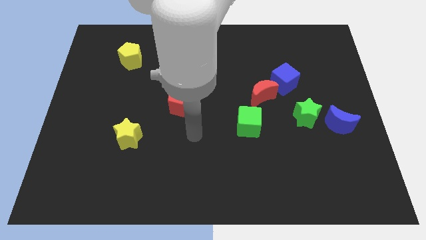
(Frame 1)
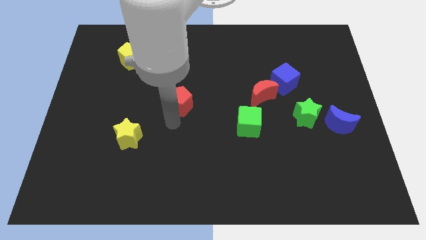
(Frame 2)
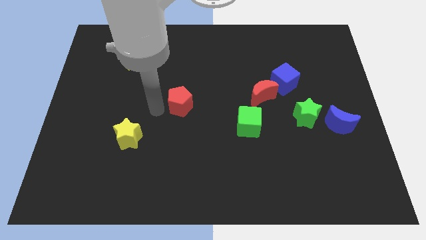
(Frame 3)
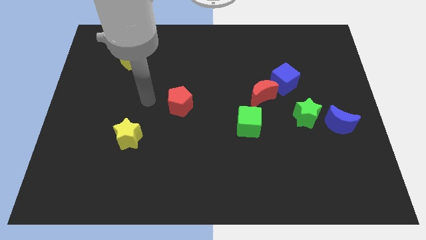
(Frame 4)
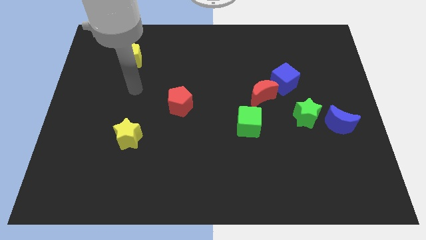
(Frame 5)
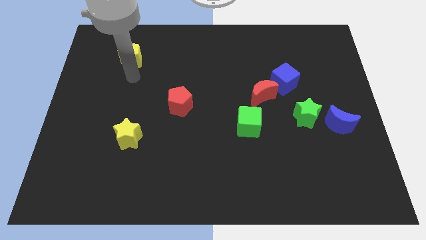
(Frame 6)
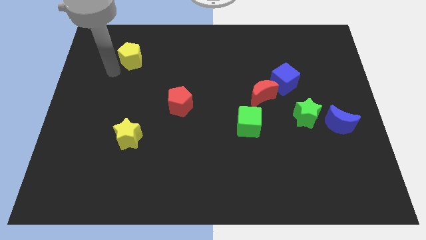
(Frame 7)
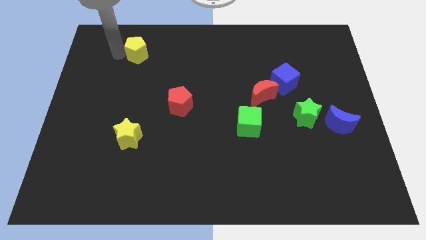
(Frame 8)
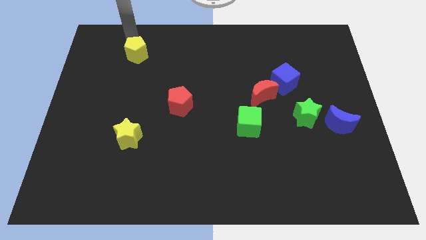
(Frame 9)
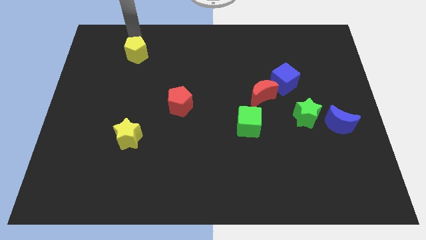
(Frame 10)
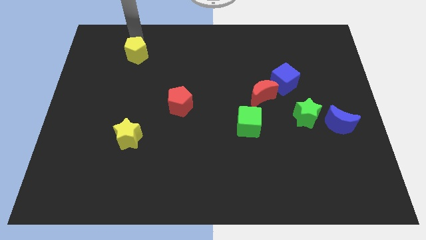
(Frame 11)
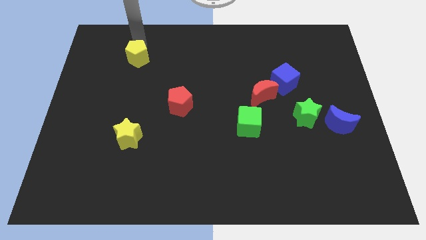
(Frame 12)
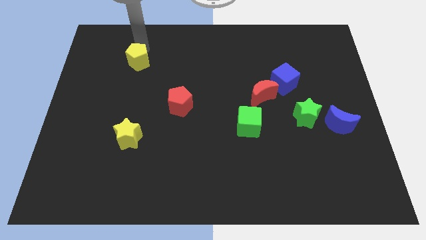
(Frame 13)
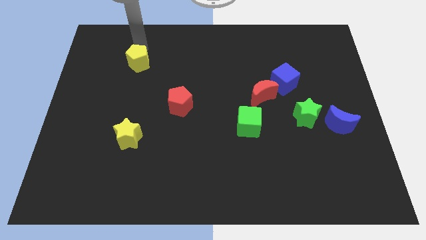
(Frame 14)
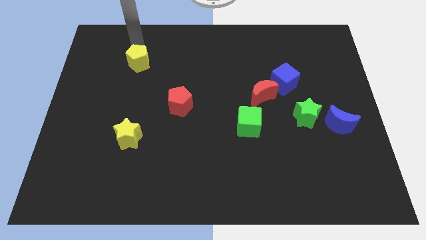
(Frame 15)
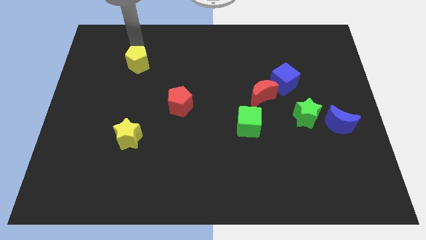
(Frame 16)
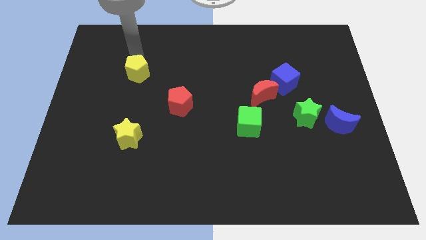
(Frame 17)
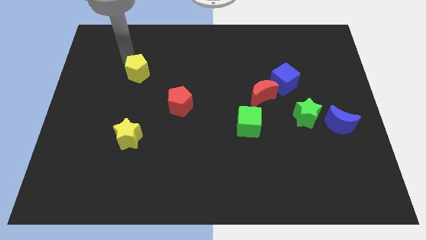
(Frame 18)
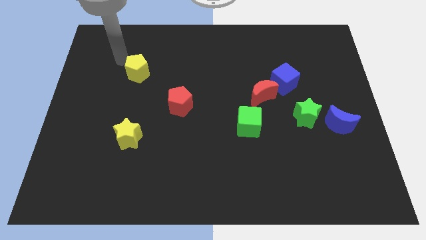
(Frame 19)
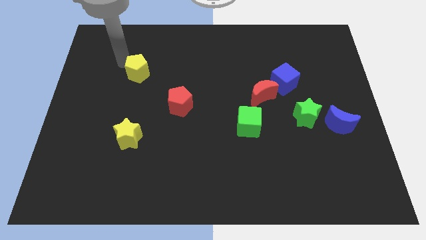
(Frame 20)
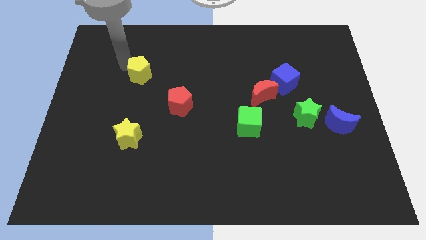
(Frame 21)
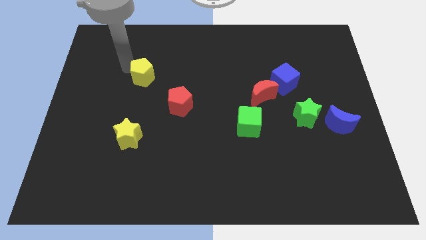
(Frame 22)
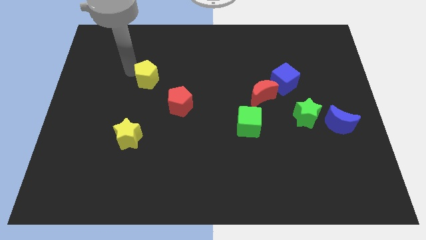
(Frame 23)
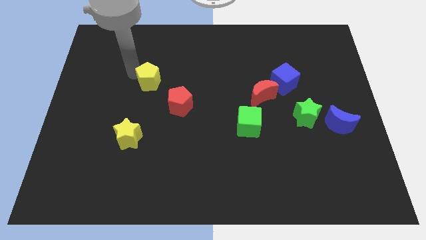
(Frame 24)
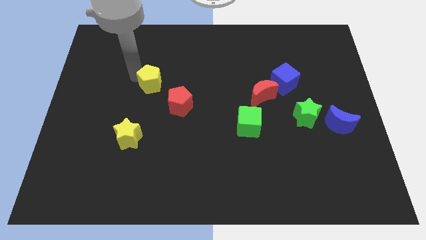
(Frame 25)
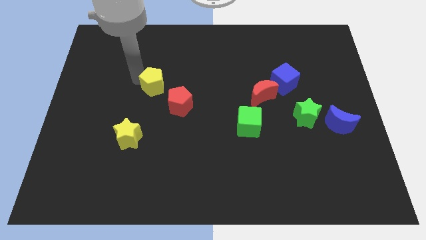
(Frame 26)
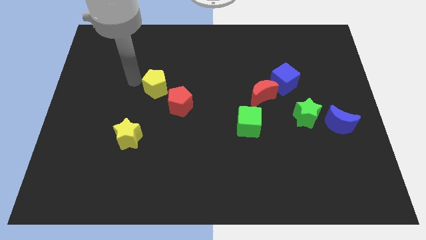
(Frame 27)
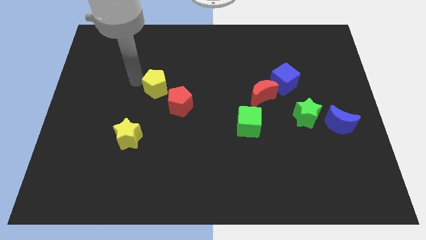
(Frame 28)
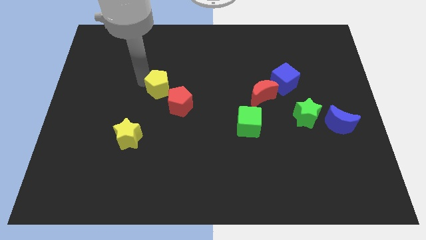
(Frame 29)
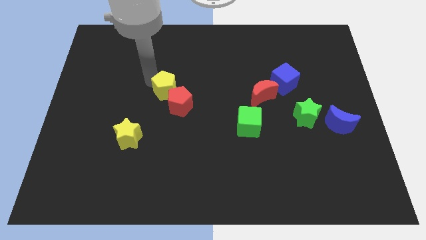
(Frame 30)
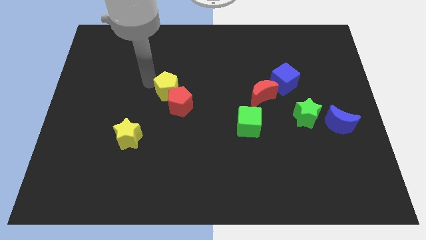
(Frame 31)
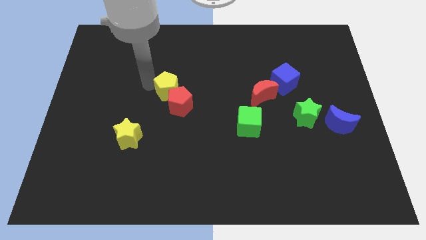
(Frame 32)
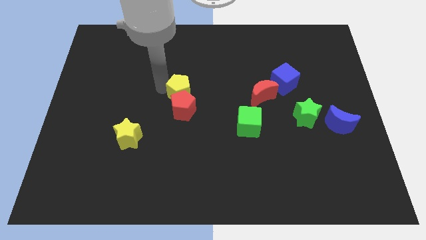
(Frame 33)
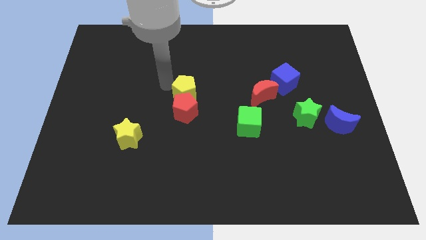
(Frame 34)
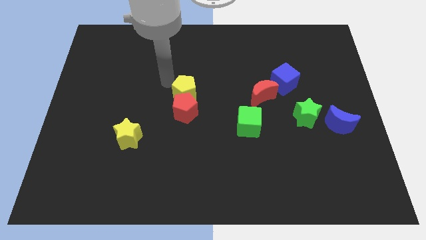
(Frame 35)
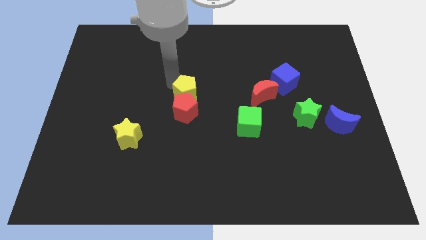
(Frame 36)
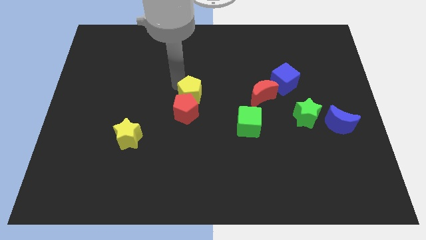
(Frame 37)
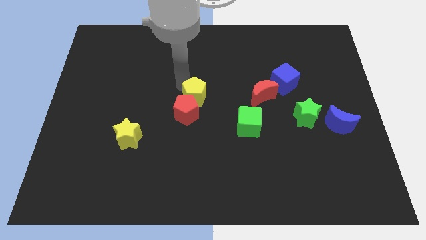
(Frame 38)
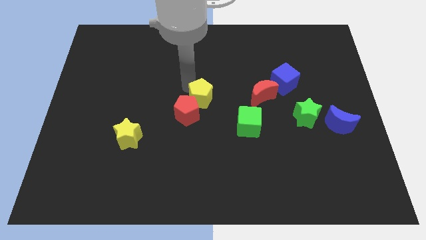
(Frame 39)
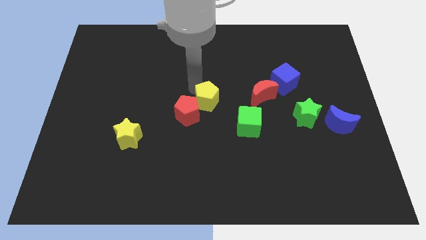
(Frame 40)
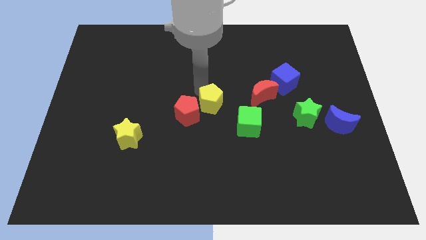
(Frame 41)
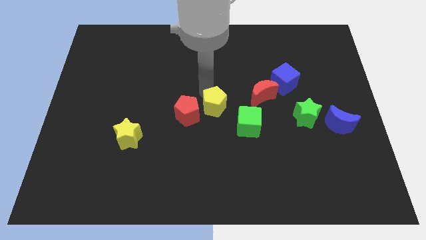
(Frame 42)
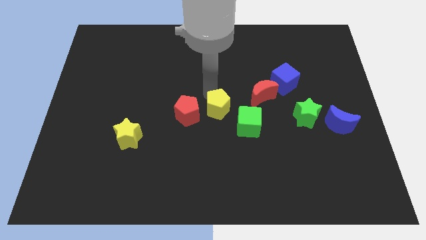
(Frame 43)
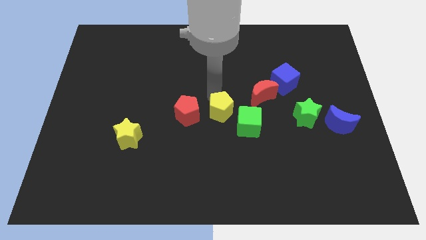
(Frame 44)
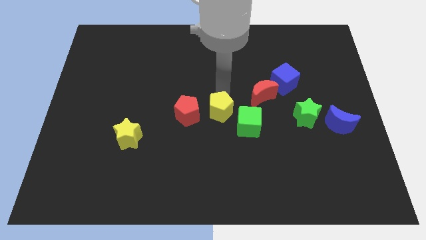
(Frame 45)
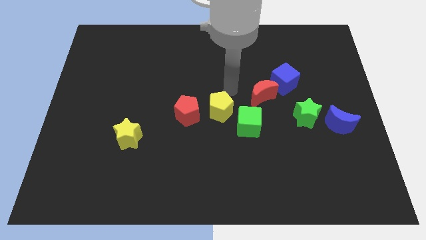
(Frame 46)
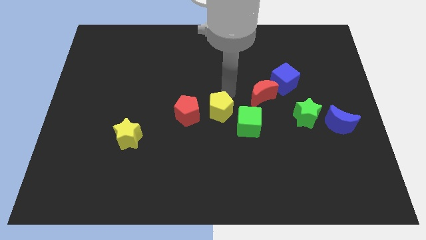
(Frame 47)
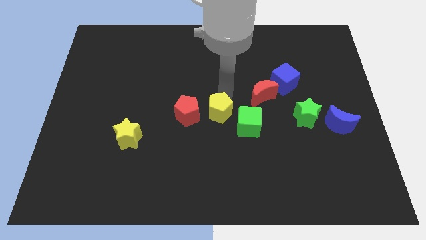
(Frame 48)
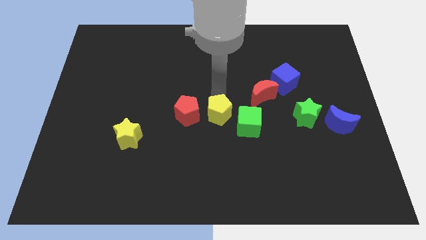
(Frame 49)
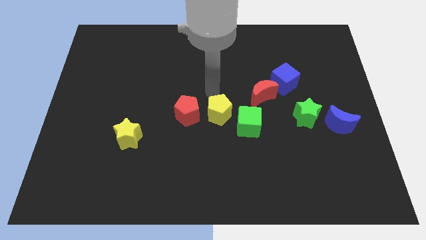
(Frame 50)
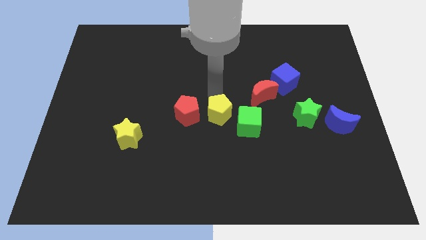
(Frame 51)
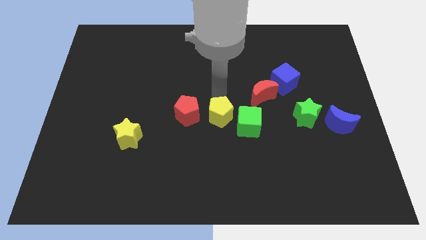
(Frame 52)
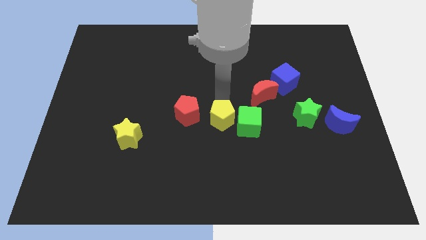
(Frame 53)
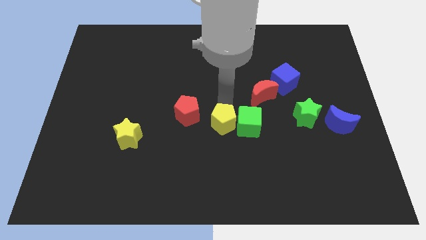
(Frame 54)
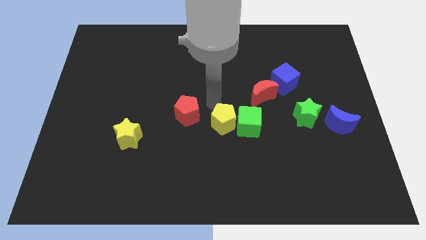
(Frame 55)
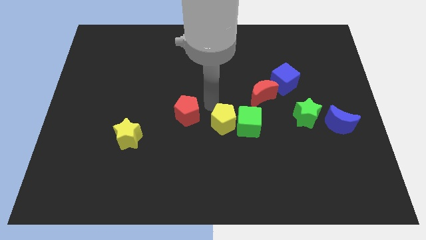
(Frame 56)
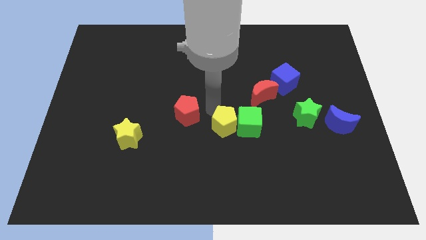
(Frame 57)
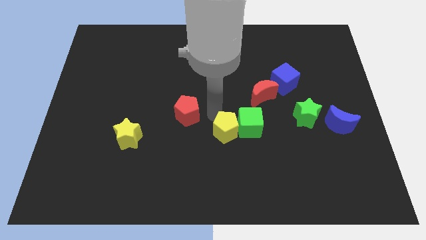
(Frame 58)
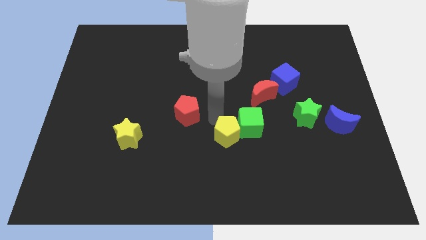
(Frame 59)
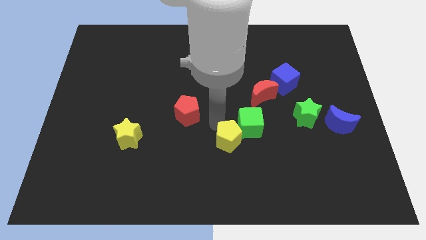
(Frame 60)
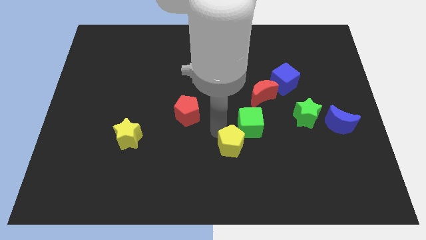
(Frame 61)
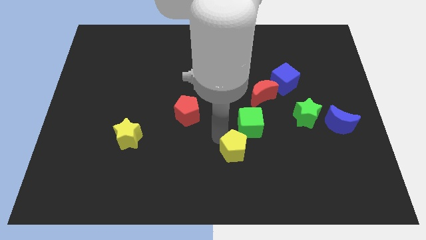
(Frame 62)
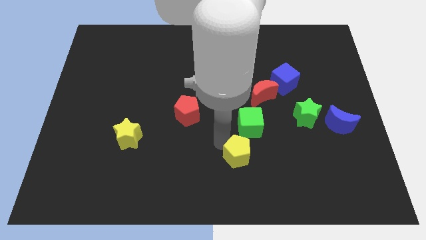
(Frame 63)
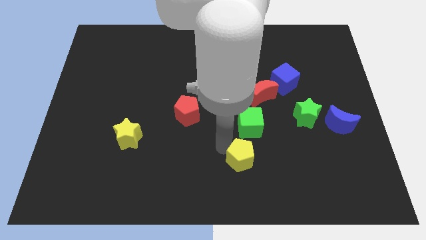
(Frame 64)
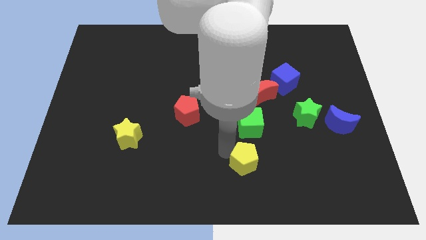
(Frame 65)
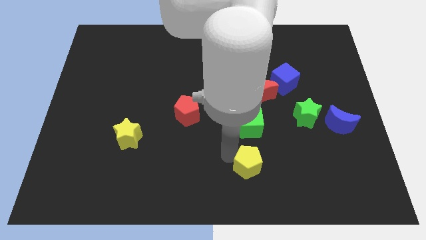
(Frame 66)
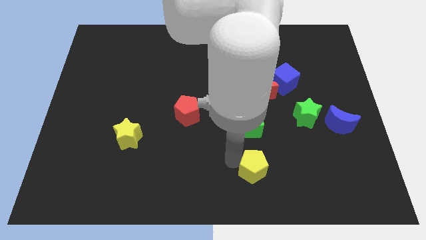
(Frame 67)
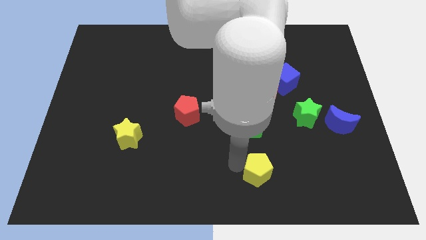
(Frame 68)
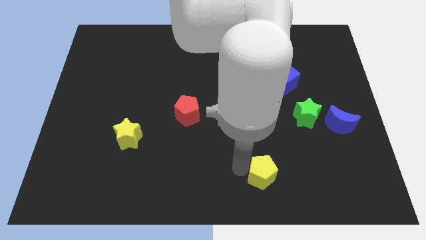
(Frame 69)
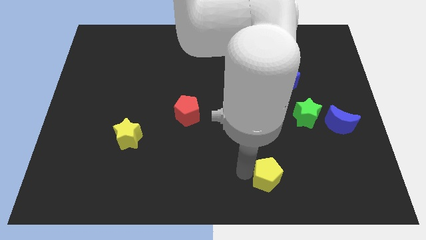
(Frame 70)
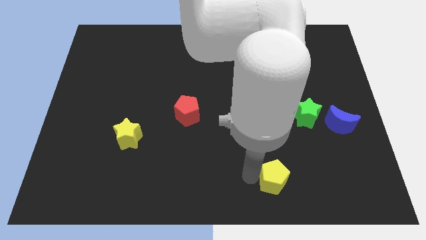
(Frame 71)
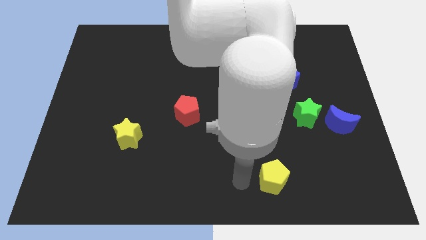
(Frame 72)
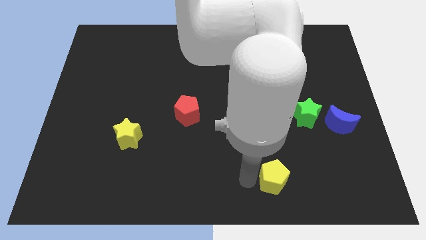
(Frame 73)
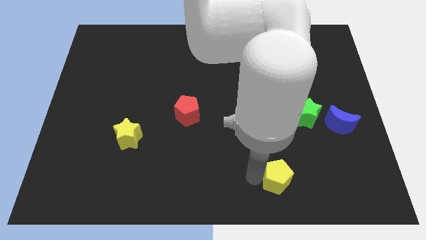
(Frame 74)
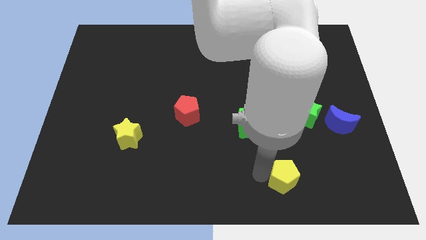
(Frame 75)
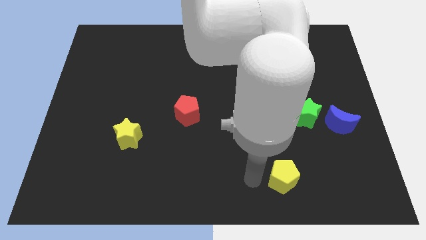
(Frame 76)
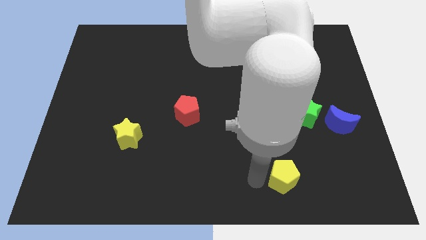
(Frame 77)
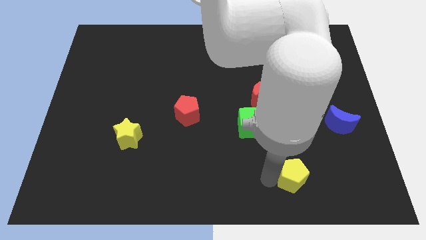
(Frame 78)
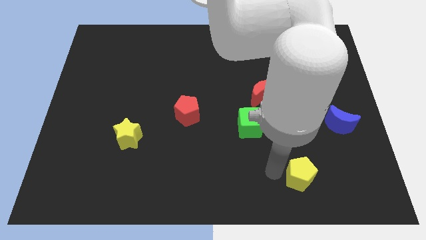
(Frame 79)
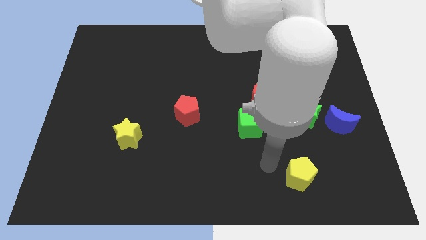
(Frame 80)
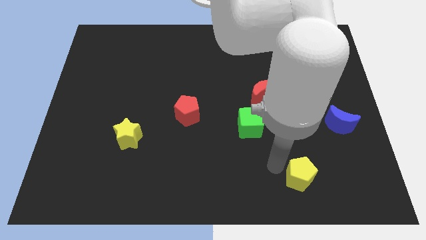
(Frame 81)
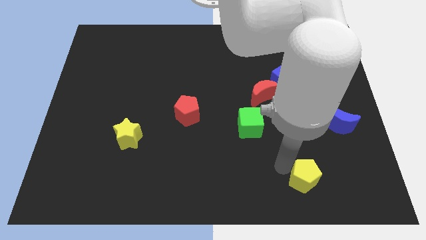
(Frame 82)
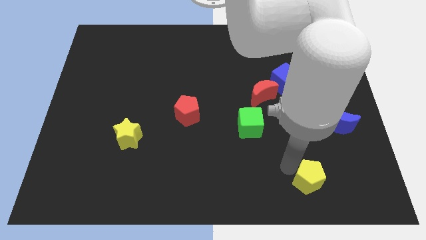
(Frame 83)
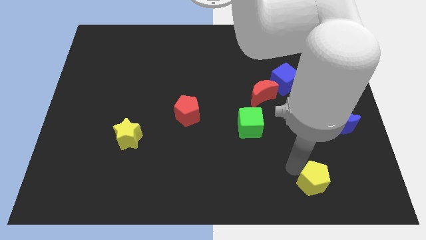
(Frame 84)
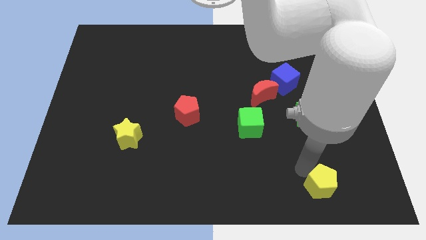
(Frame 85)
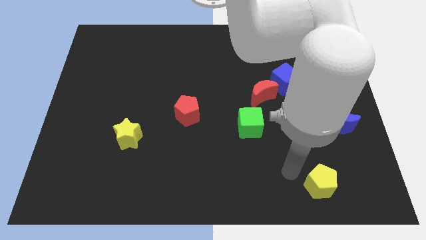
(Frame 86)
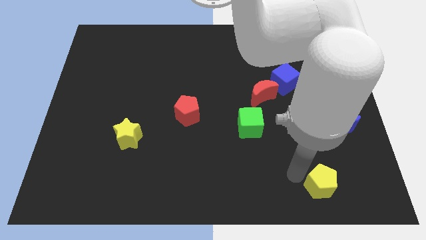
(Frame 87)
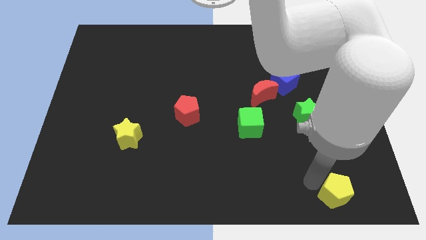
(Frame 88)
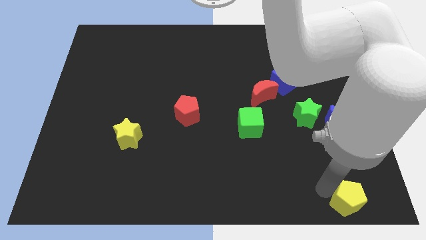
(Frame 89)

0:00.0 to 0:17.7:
push the yellow pentagon to the bottom right of the board
